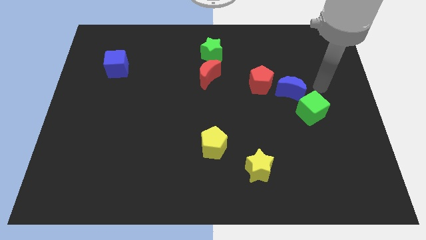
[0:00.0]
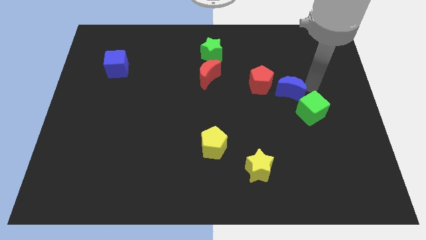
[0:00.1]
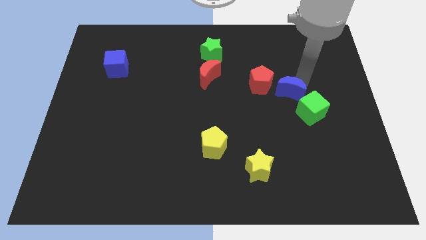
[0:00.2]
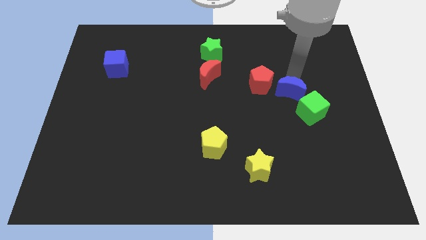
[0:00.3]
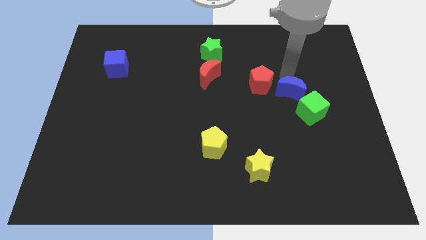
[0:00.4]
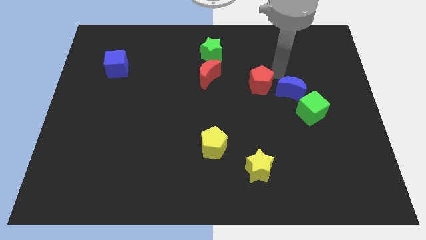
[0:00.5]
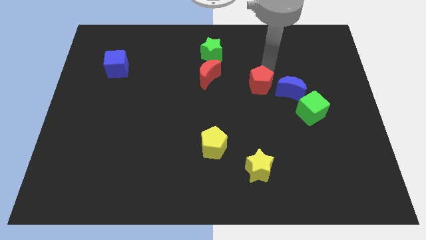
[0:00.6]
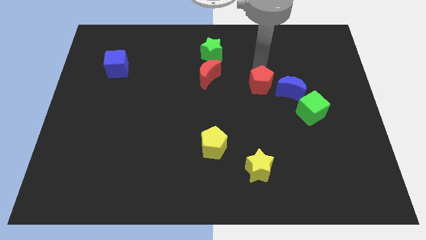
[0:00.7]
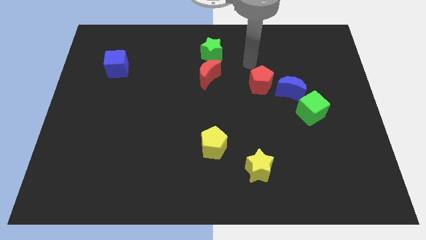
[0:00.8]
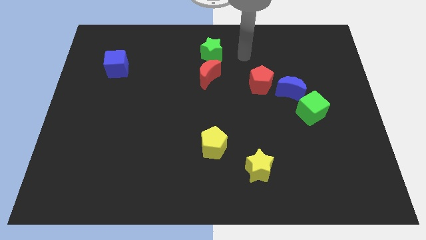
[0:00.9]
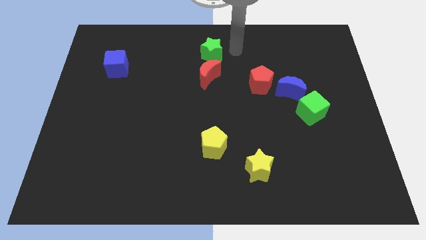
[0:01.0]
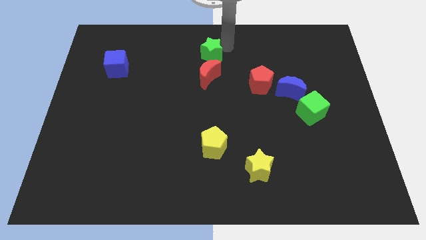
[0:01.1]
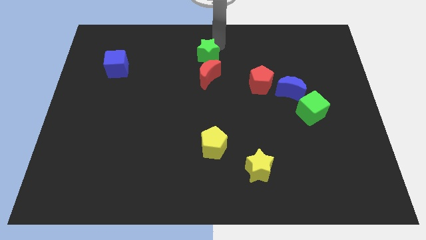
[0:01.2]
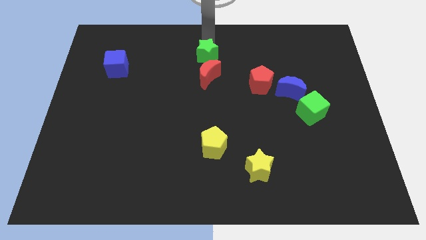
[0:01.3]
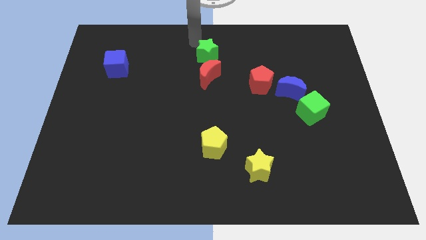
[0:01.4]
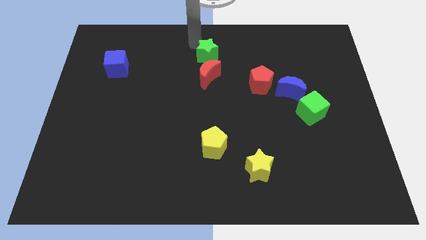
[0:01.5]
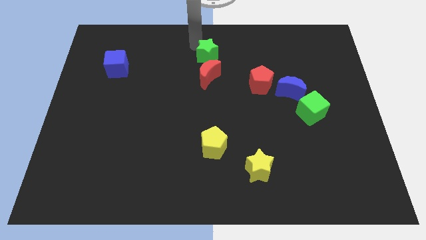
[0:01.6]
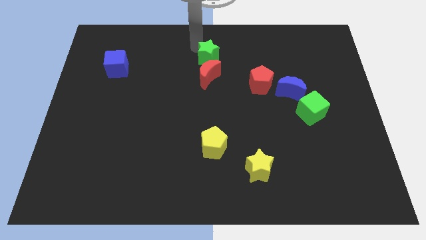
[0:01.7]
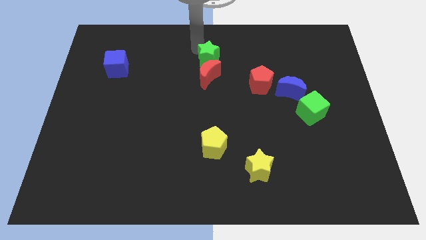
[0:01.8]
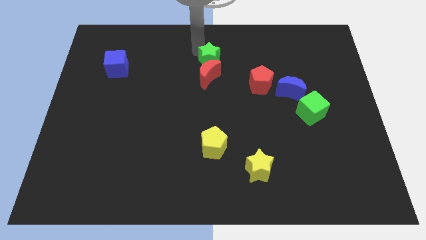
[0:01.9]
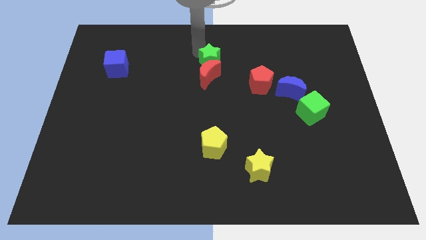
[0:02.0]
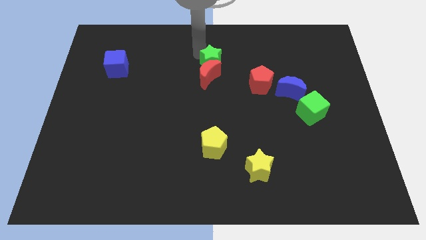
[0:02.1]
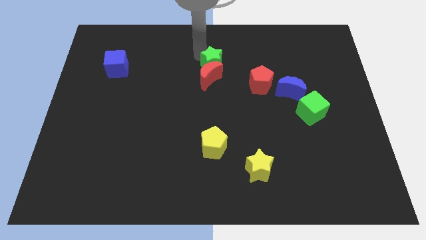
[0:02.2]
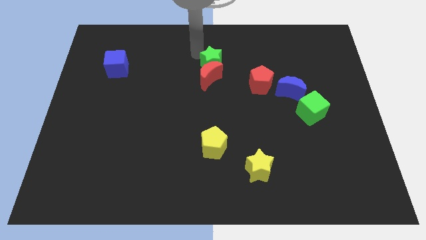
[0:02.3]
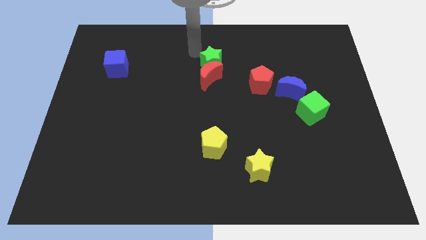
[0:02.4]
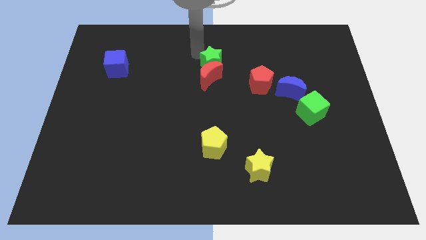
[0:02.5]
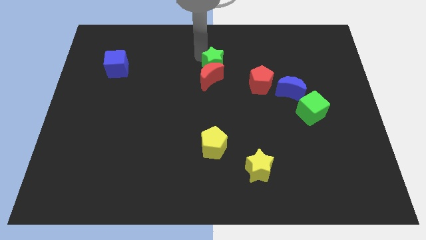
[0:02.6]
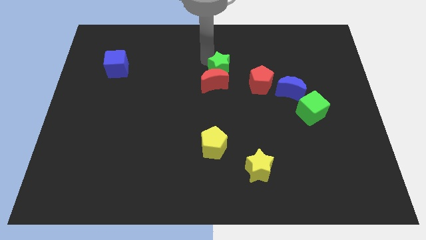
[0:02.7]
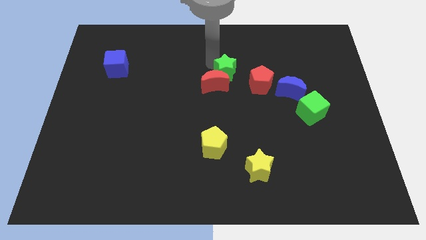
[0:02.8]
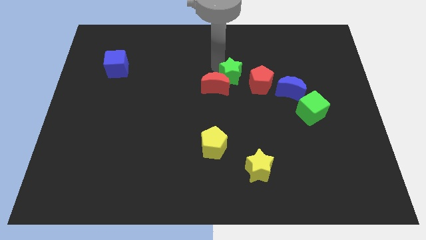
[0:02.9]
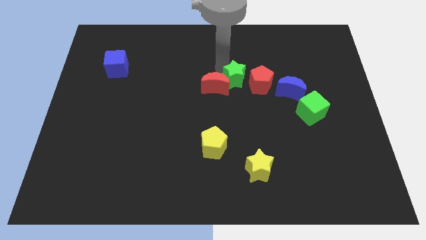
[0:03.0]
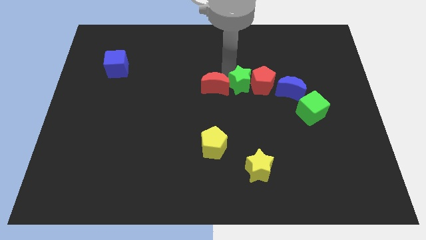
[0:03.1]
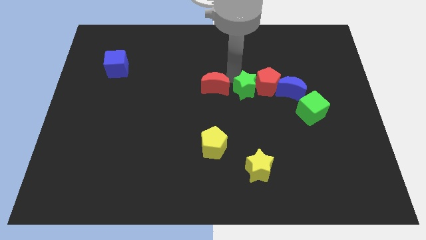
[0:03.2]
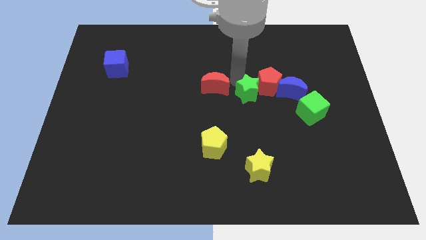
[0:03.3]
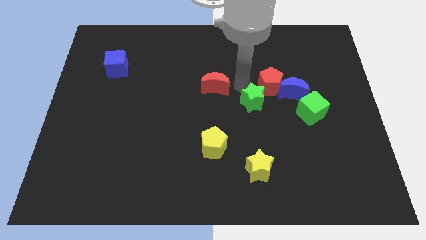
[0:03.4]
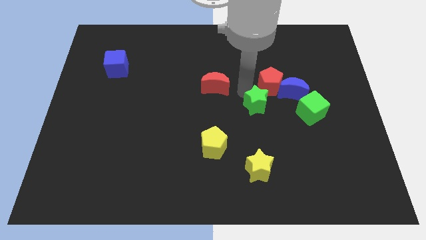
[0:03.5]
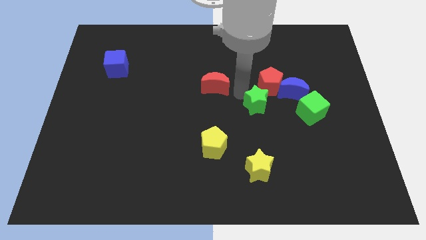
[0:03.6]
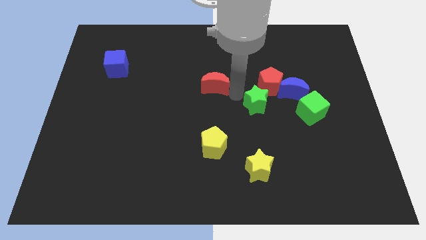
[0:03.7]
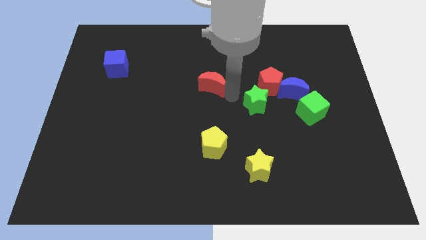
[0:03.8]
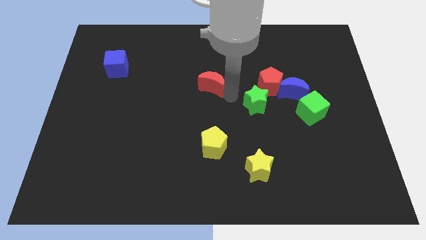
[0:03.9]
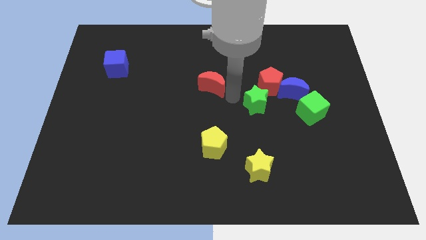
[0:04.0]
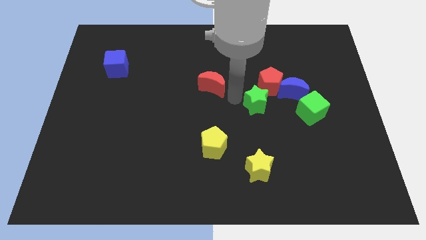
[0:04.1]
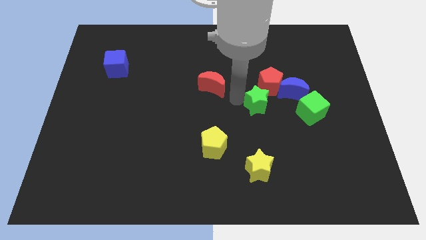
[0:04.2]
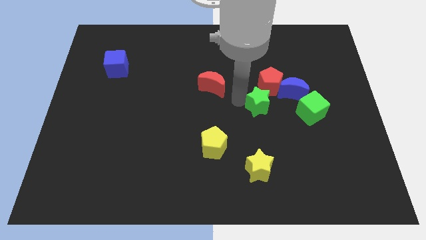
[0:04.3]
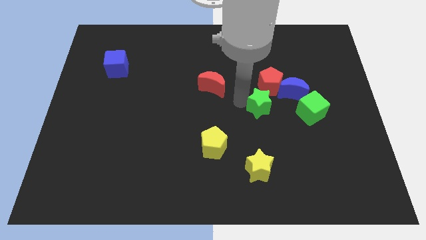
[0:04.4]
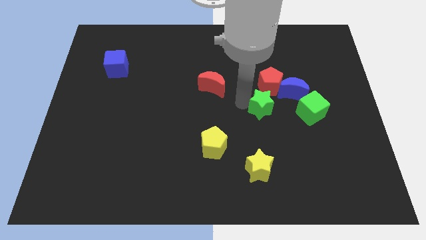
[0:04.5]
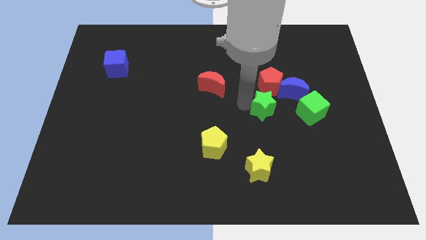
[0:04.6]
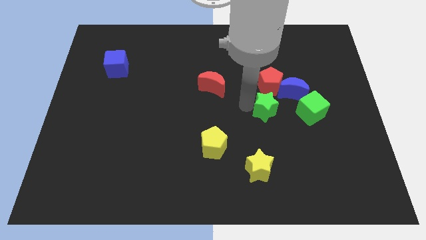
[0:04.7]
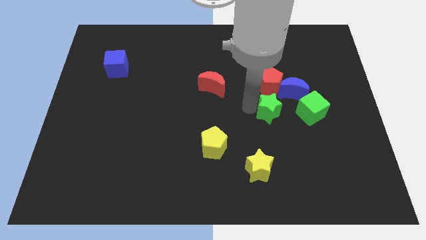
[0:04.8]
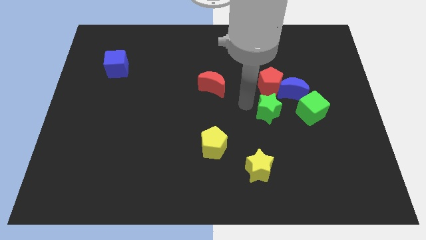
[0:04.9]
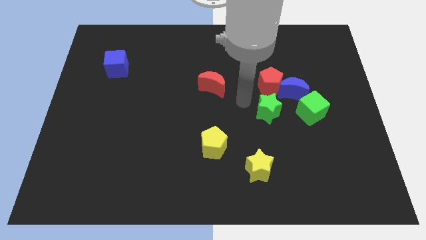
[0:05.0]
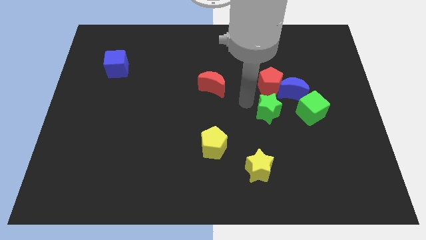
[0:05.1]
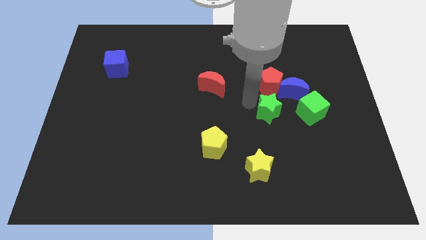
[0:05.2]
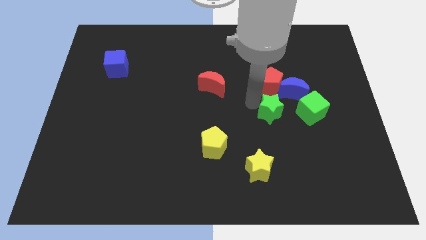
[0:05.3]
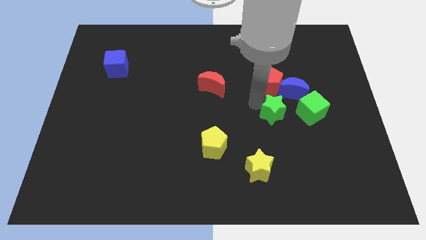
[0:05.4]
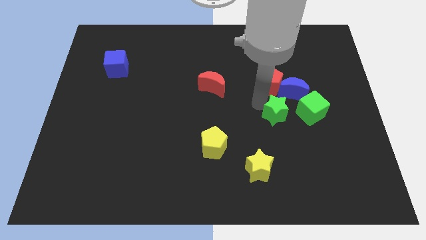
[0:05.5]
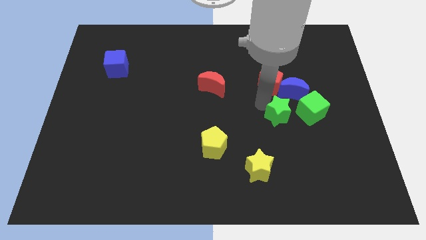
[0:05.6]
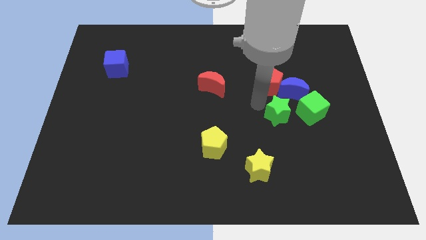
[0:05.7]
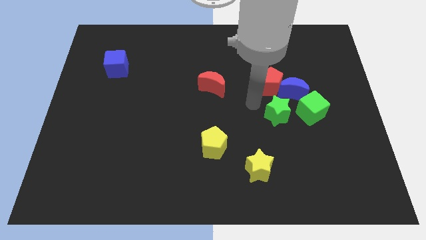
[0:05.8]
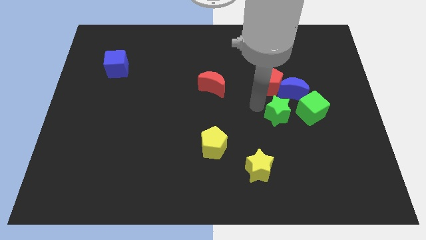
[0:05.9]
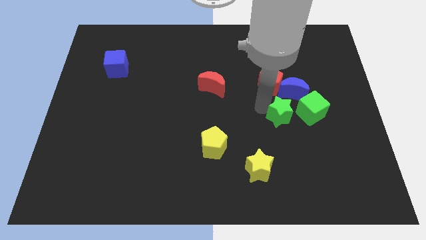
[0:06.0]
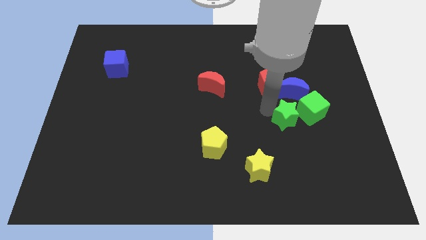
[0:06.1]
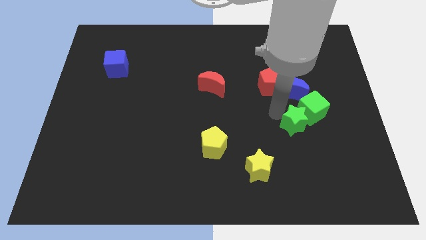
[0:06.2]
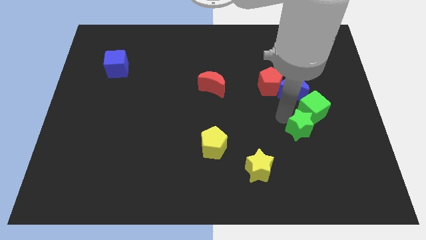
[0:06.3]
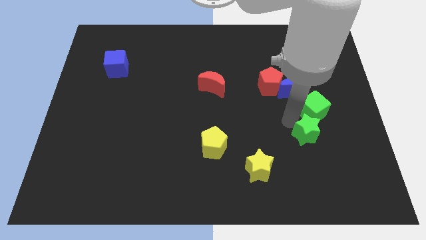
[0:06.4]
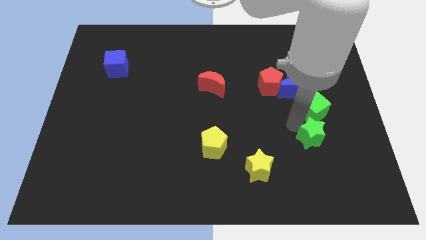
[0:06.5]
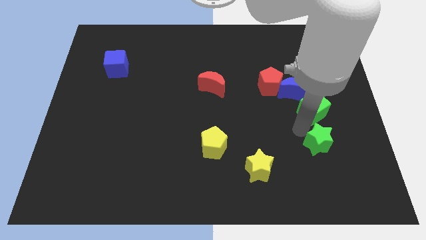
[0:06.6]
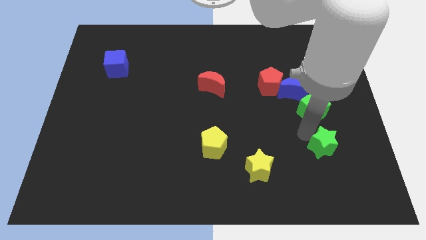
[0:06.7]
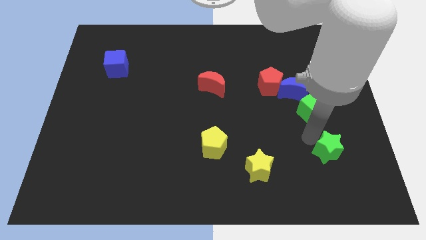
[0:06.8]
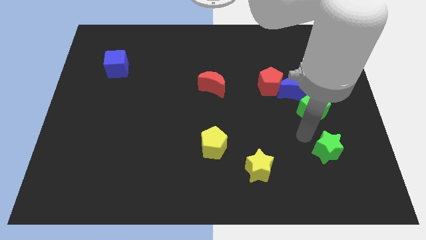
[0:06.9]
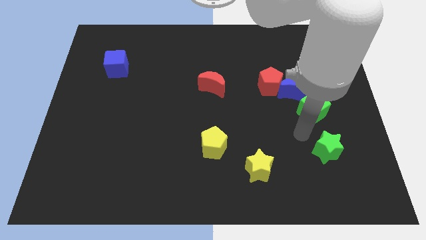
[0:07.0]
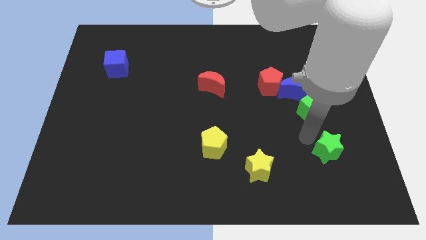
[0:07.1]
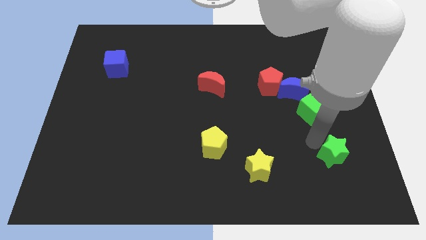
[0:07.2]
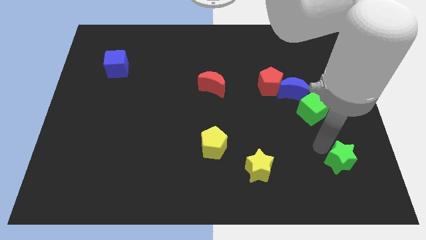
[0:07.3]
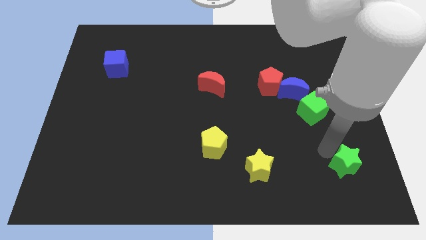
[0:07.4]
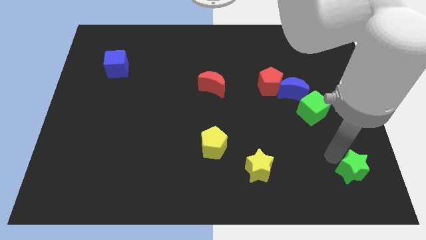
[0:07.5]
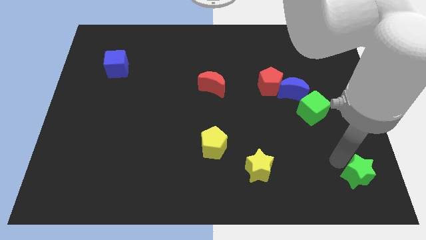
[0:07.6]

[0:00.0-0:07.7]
push the green star to the bottom right of the board
